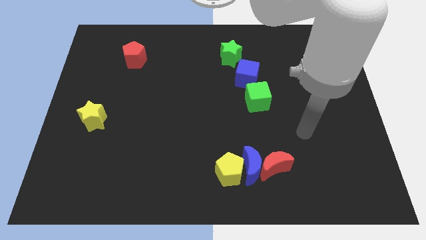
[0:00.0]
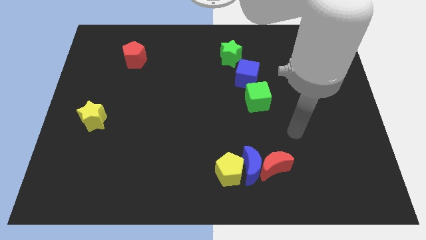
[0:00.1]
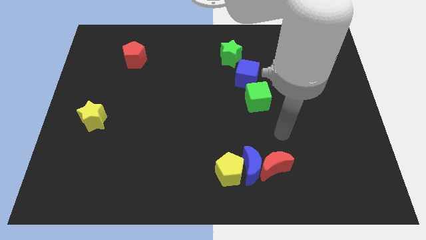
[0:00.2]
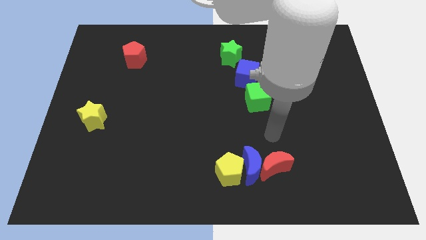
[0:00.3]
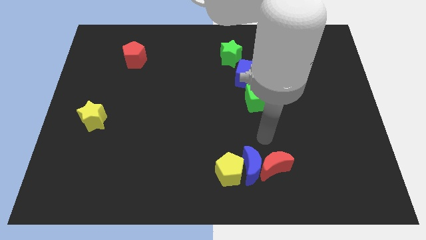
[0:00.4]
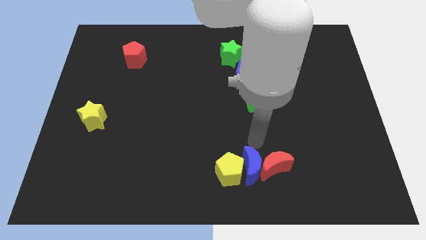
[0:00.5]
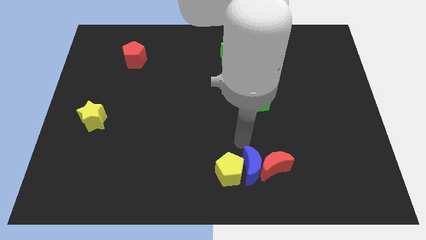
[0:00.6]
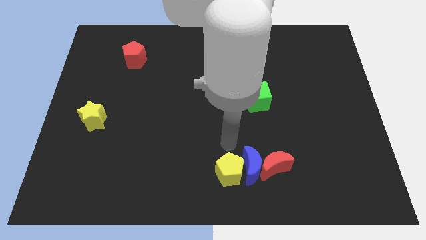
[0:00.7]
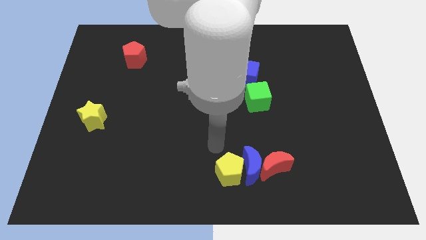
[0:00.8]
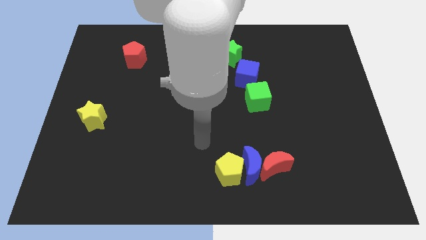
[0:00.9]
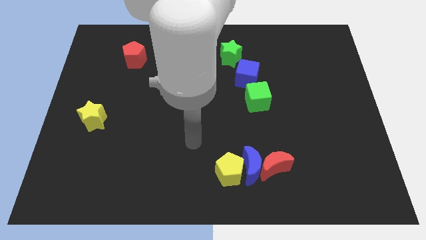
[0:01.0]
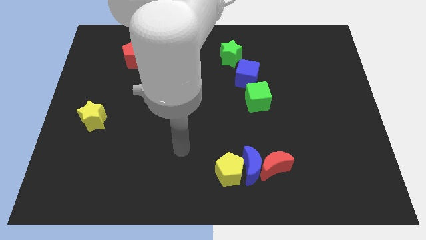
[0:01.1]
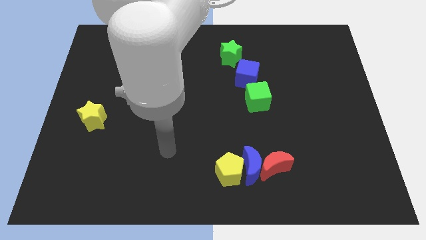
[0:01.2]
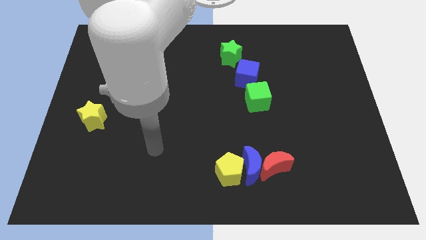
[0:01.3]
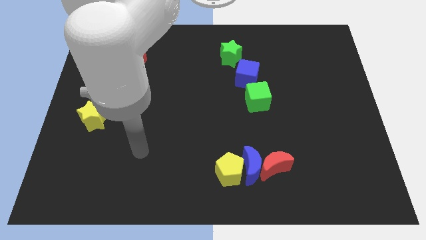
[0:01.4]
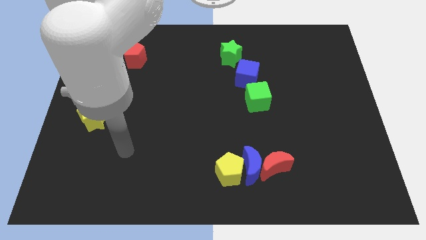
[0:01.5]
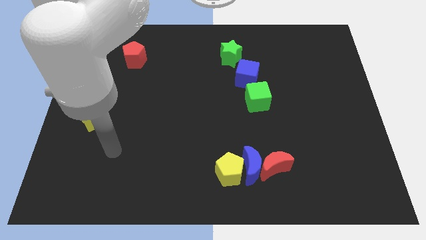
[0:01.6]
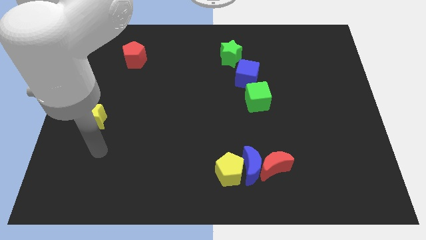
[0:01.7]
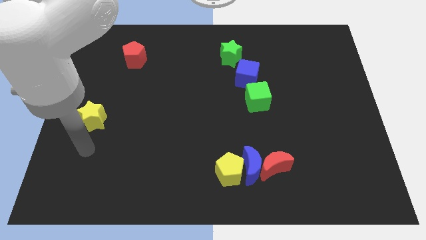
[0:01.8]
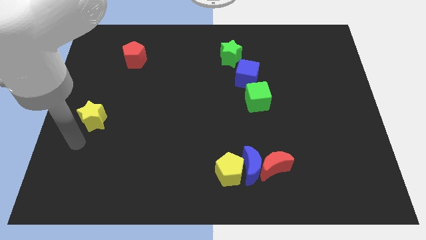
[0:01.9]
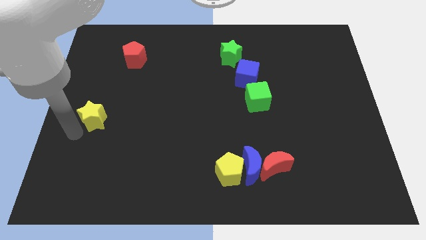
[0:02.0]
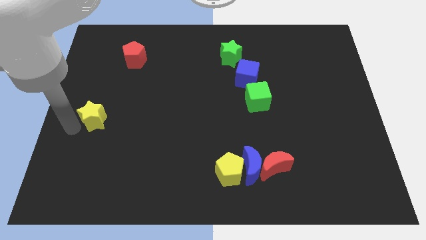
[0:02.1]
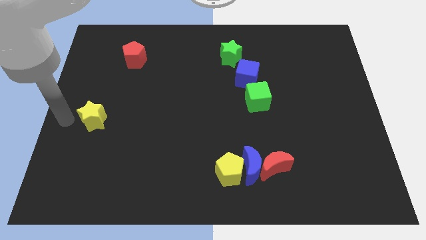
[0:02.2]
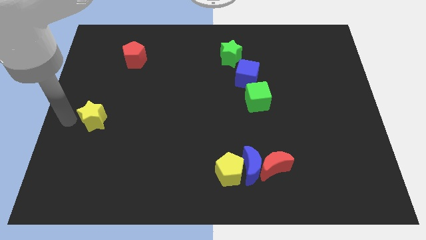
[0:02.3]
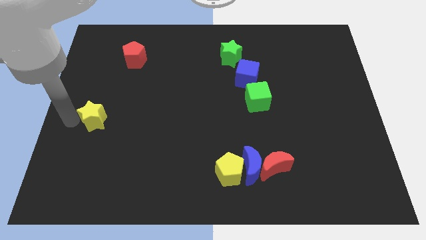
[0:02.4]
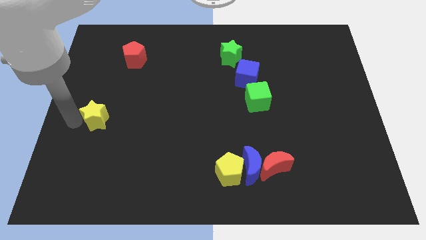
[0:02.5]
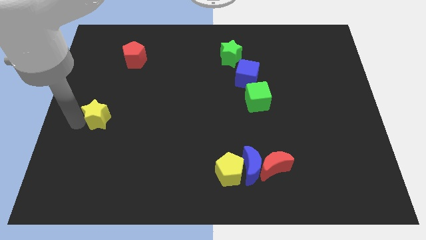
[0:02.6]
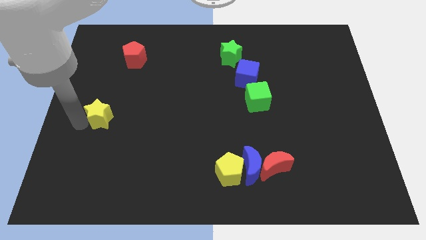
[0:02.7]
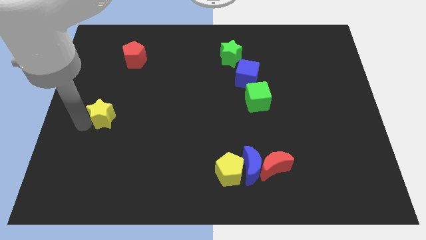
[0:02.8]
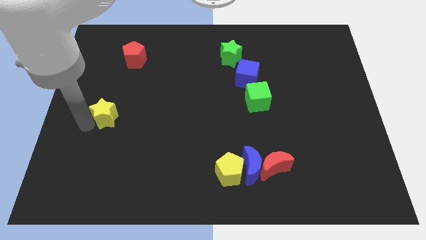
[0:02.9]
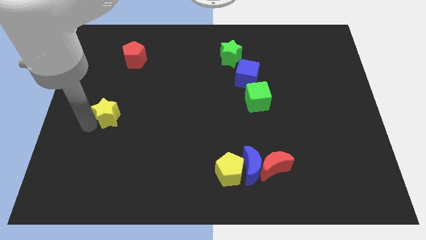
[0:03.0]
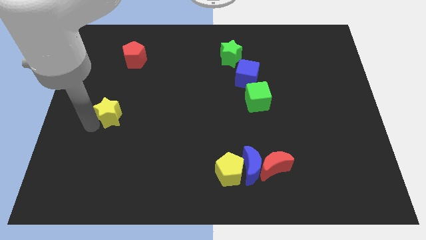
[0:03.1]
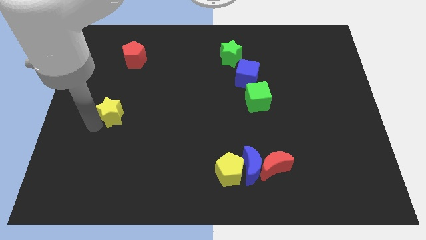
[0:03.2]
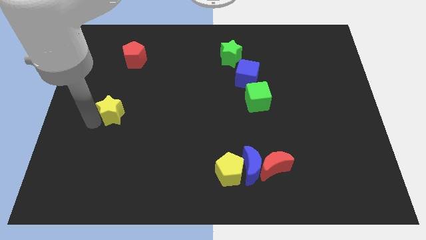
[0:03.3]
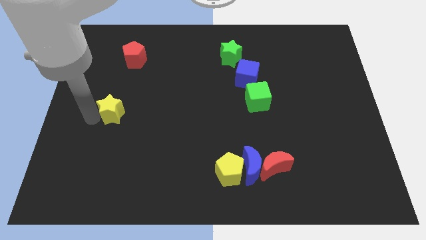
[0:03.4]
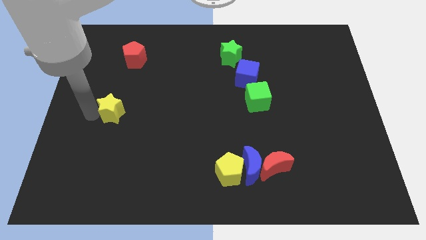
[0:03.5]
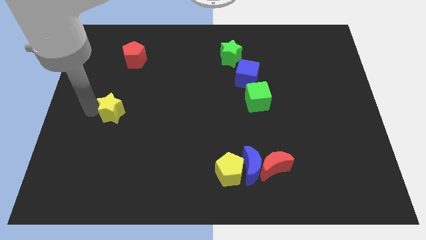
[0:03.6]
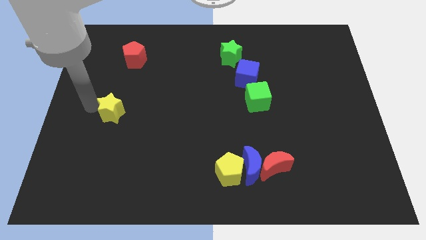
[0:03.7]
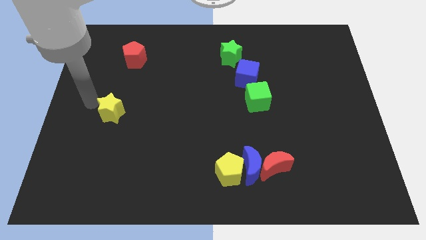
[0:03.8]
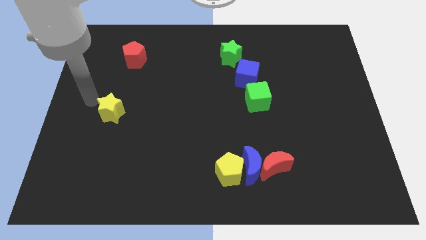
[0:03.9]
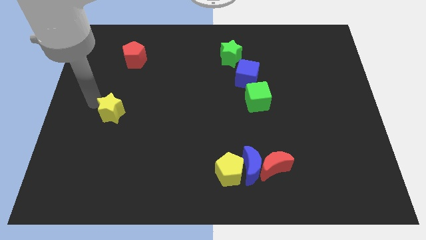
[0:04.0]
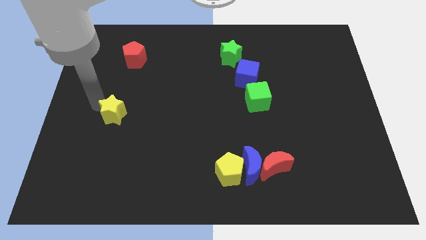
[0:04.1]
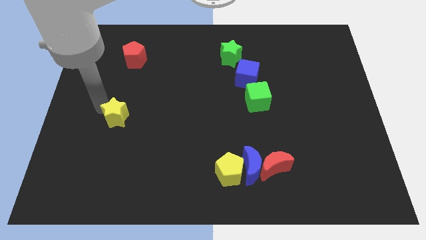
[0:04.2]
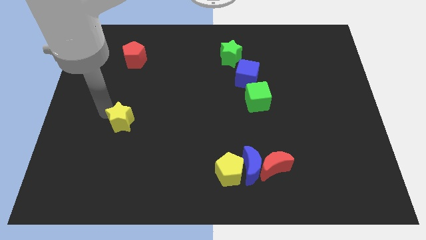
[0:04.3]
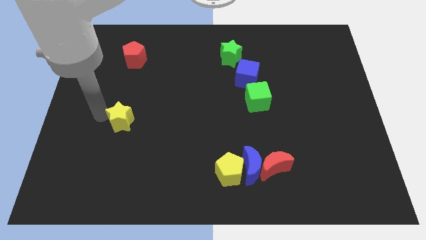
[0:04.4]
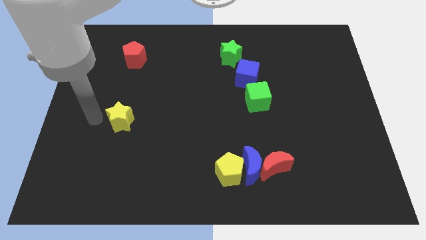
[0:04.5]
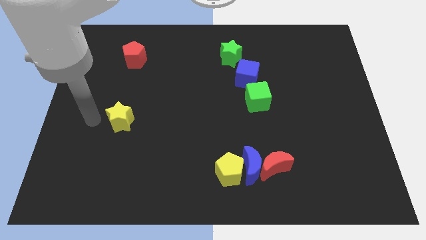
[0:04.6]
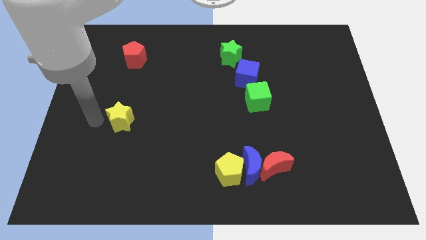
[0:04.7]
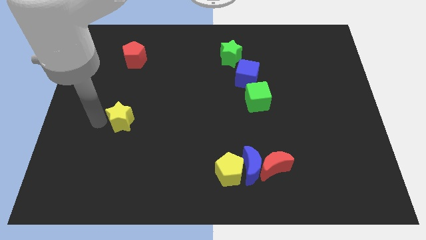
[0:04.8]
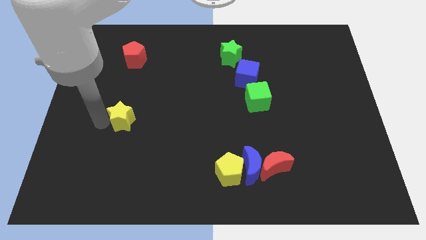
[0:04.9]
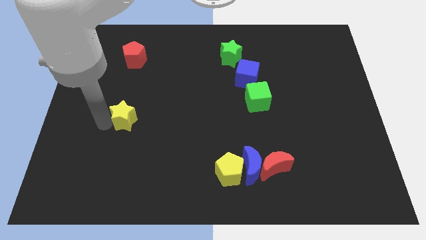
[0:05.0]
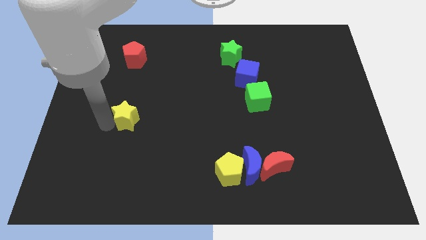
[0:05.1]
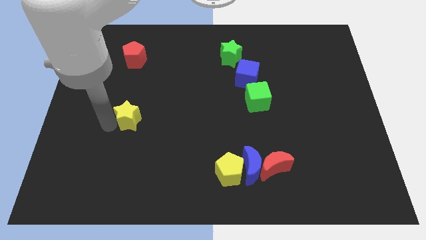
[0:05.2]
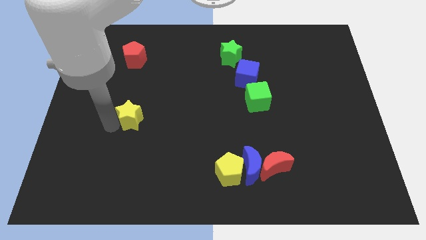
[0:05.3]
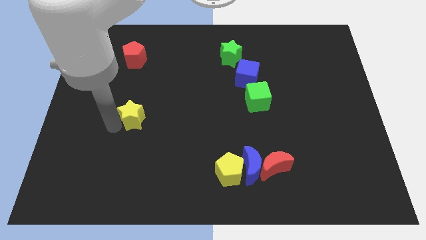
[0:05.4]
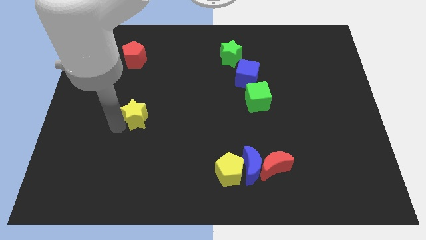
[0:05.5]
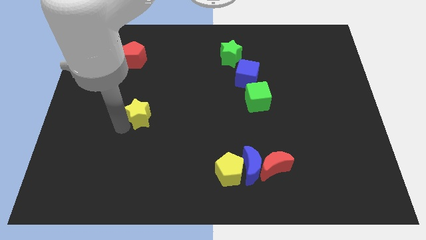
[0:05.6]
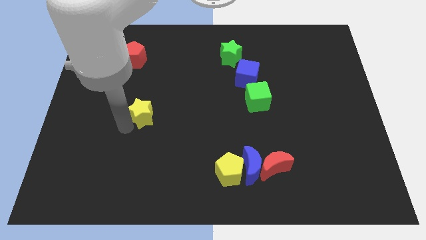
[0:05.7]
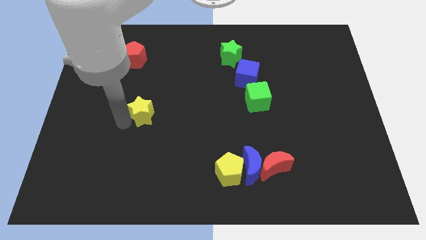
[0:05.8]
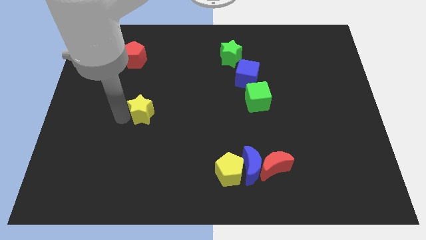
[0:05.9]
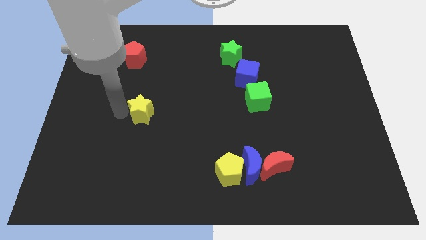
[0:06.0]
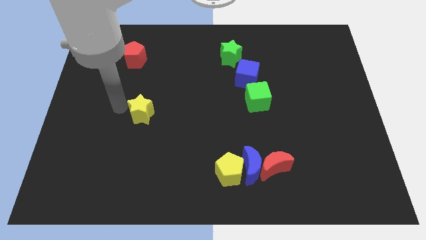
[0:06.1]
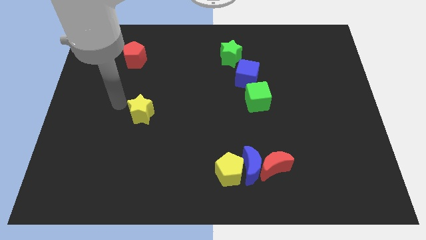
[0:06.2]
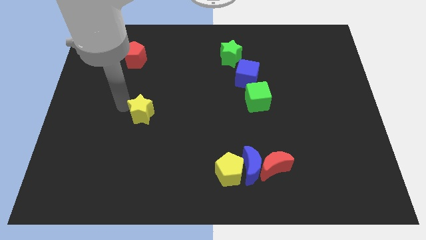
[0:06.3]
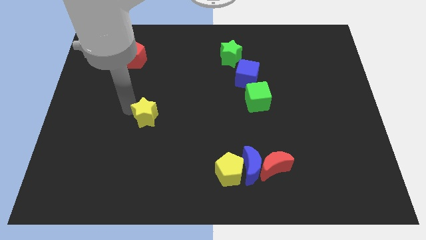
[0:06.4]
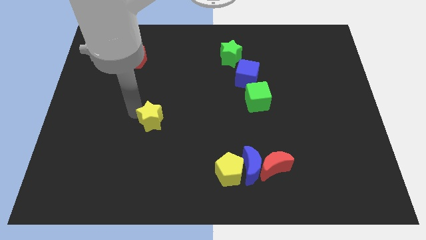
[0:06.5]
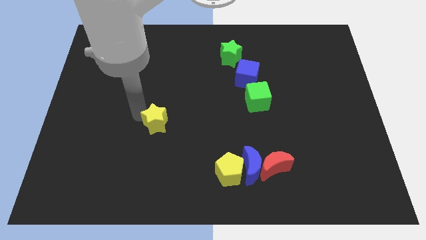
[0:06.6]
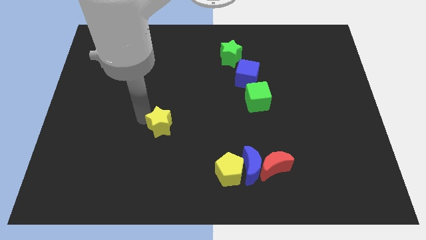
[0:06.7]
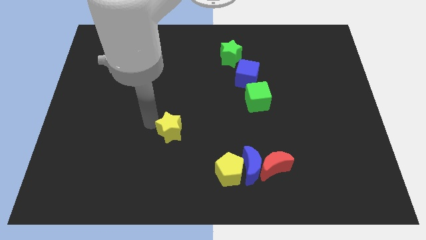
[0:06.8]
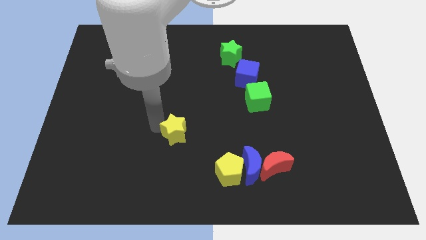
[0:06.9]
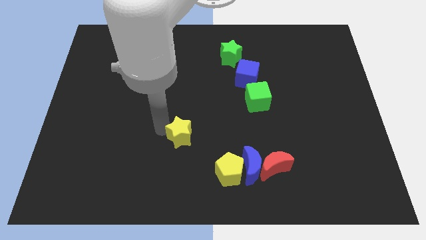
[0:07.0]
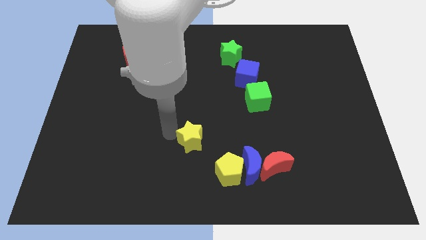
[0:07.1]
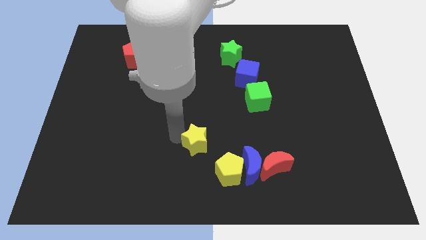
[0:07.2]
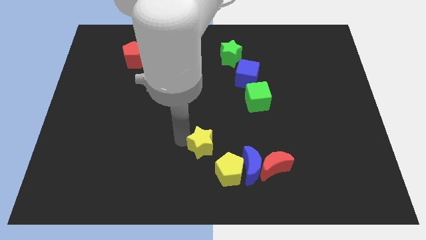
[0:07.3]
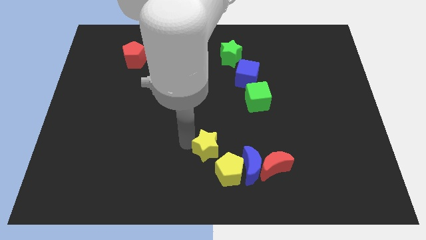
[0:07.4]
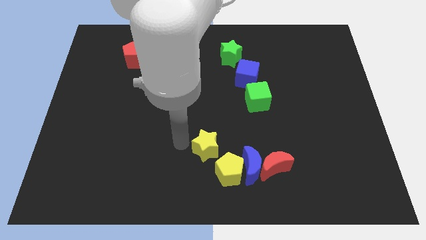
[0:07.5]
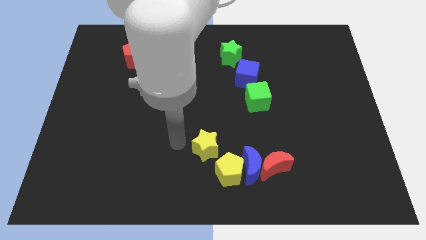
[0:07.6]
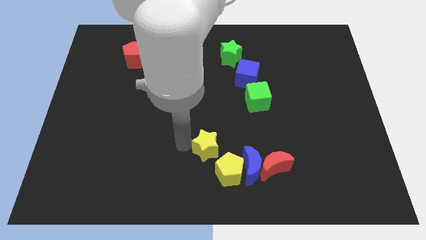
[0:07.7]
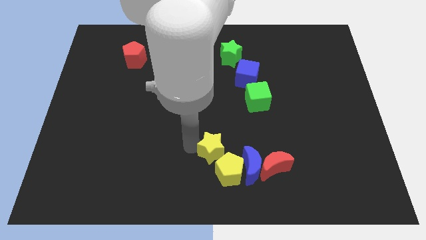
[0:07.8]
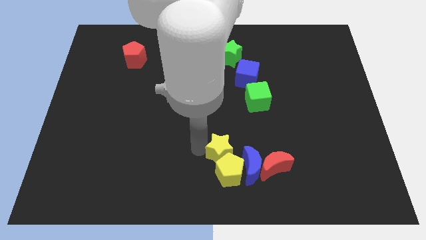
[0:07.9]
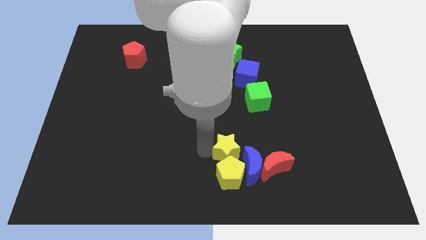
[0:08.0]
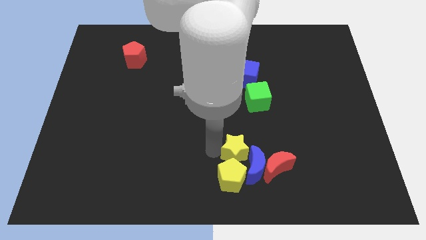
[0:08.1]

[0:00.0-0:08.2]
put the yellow star close to the blue moon
